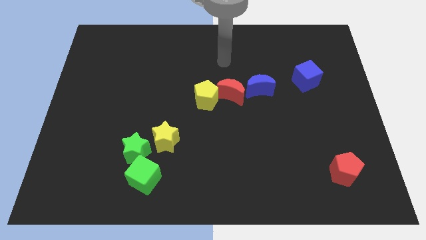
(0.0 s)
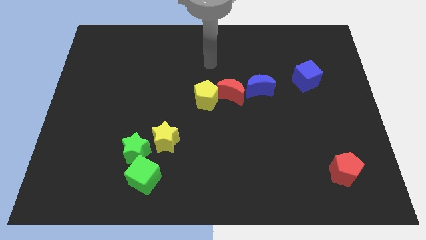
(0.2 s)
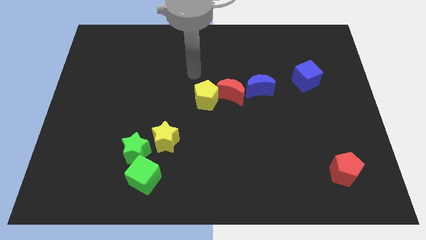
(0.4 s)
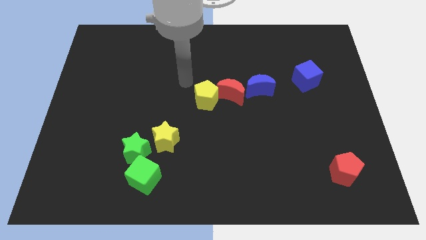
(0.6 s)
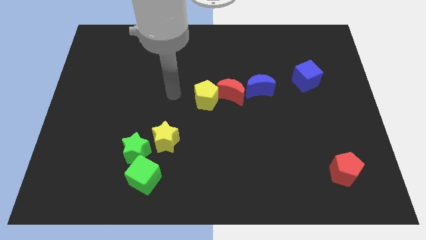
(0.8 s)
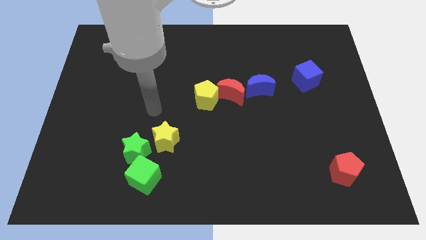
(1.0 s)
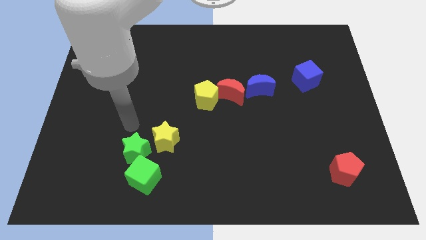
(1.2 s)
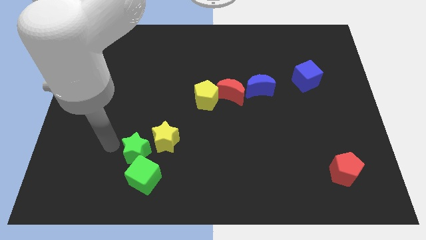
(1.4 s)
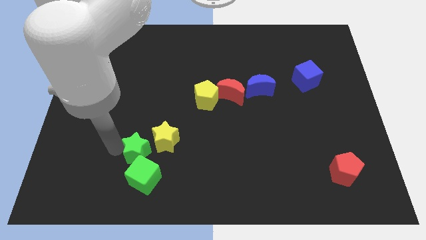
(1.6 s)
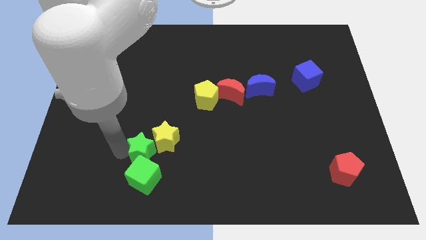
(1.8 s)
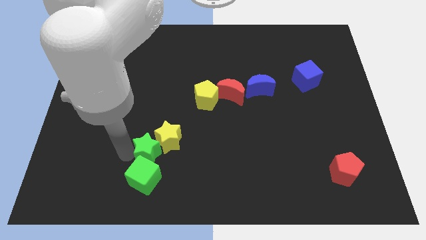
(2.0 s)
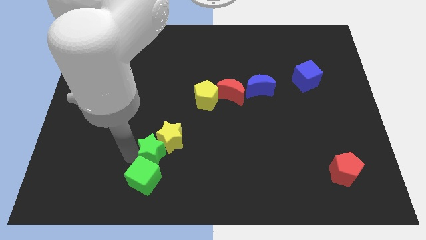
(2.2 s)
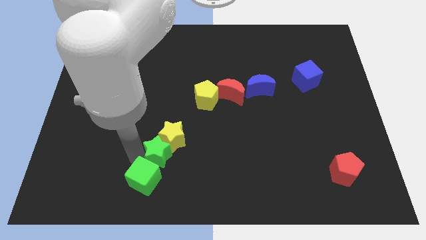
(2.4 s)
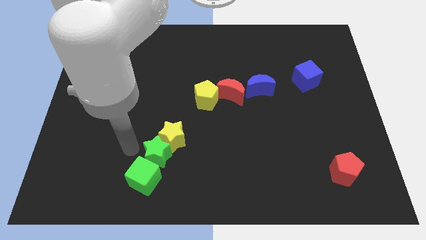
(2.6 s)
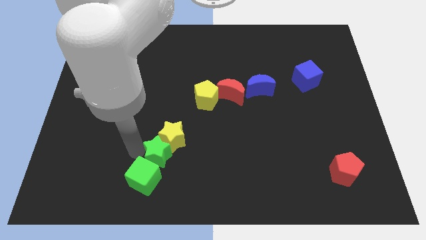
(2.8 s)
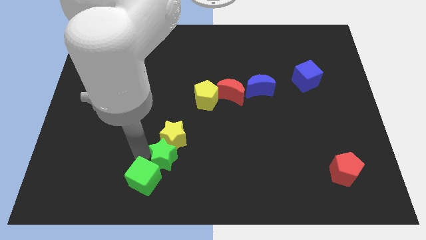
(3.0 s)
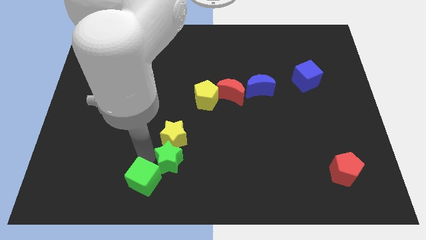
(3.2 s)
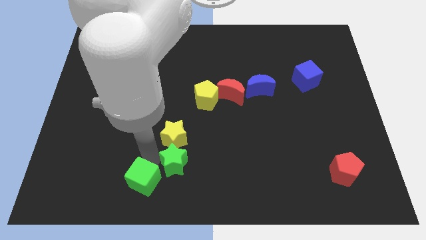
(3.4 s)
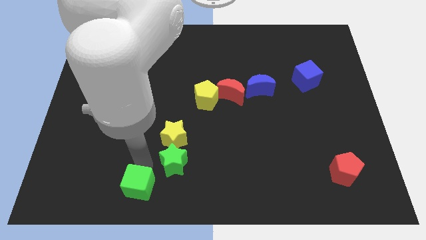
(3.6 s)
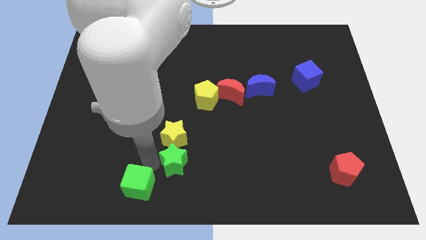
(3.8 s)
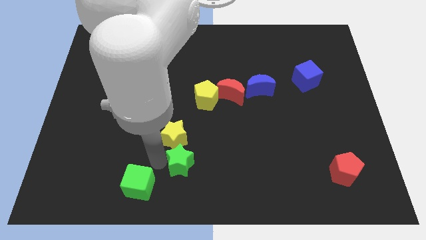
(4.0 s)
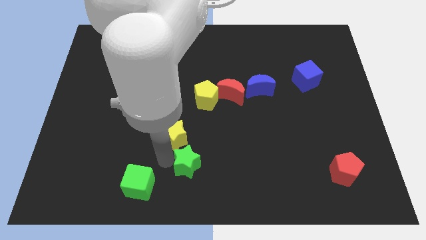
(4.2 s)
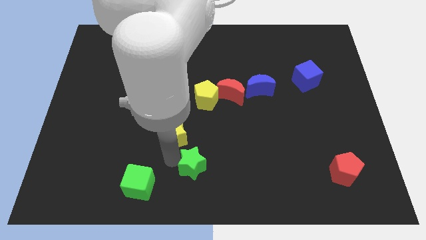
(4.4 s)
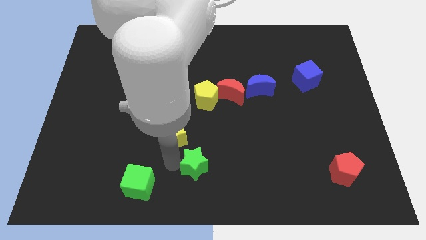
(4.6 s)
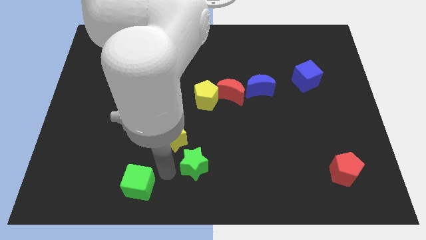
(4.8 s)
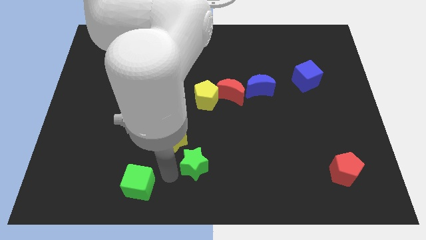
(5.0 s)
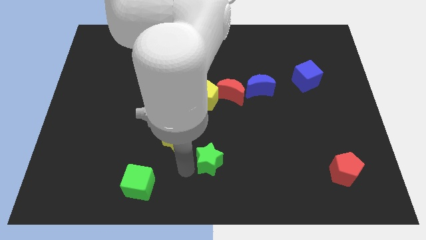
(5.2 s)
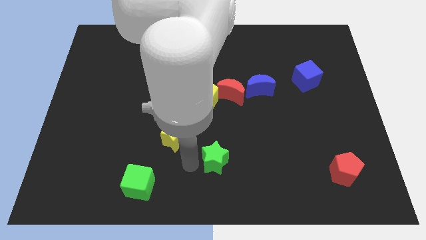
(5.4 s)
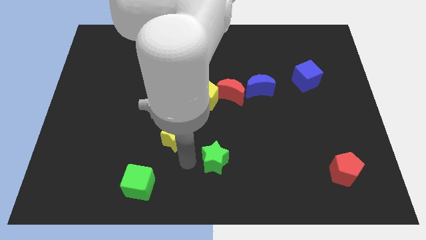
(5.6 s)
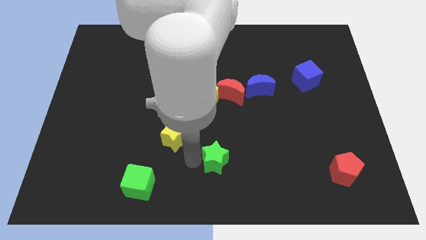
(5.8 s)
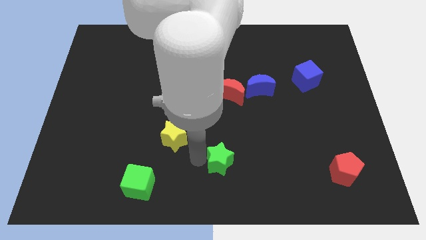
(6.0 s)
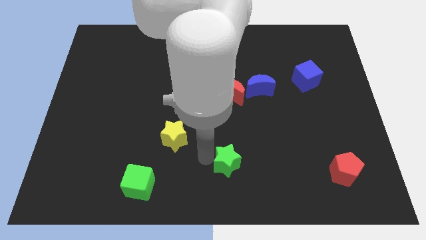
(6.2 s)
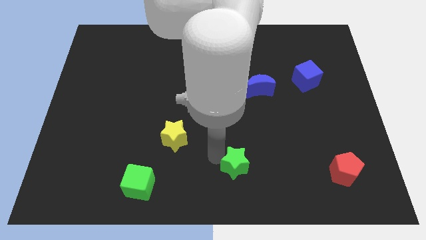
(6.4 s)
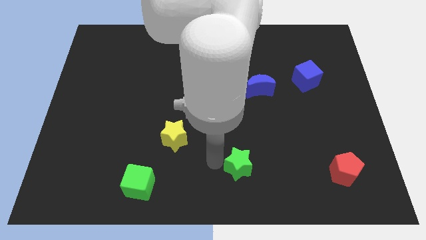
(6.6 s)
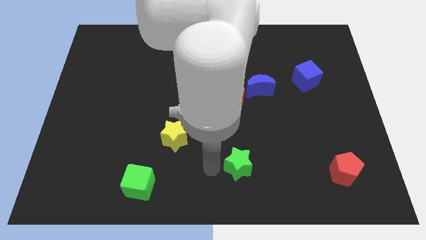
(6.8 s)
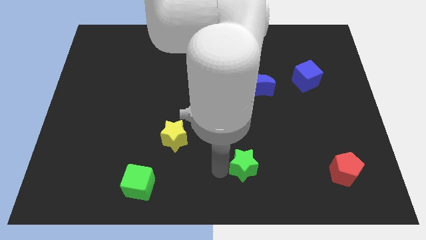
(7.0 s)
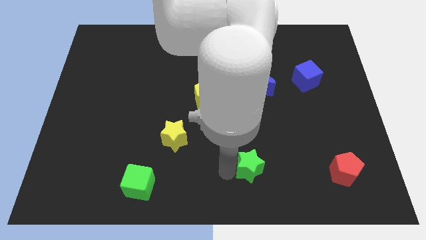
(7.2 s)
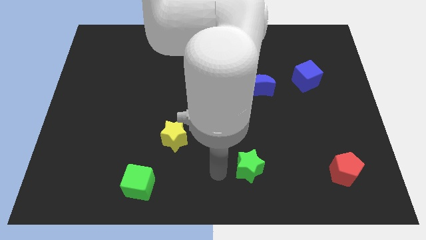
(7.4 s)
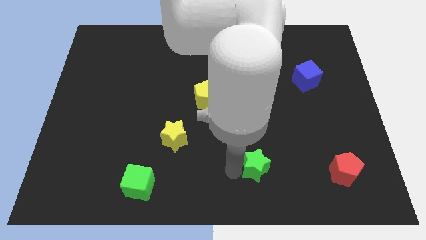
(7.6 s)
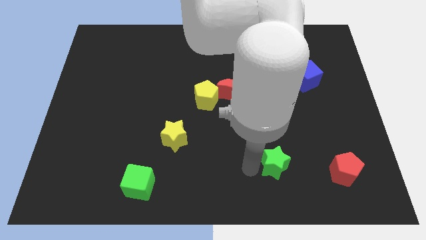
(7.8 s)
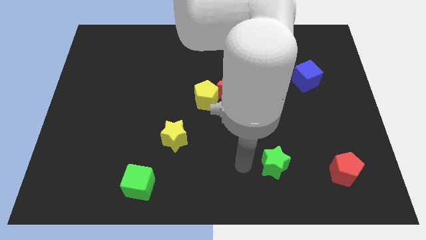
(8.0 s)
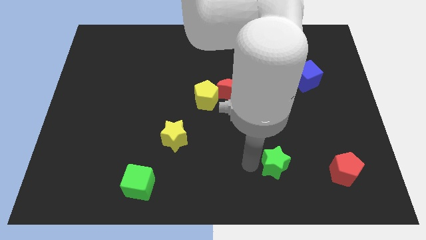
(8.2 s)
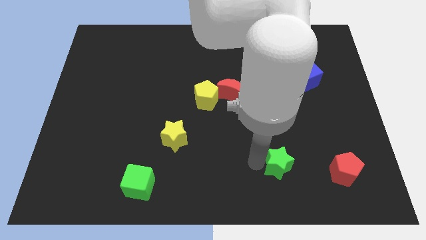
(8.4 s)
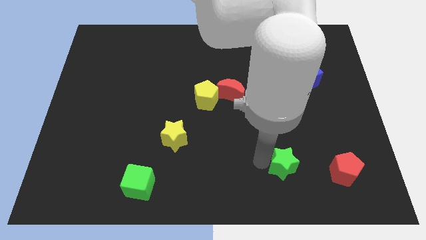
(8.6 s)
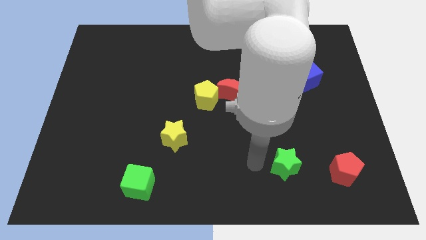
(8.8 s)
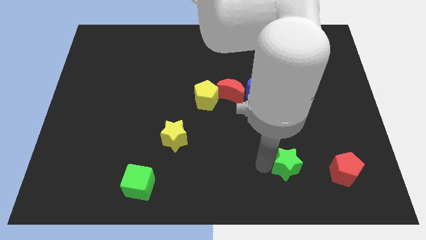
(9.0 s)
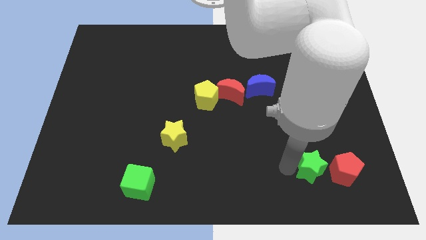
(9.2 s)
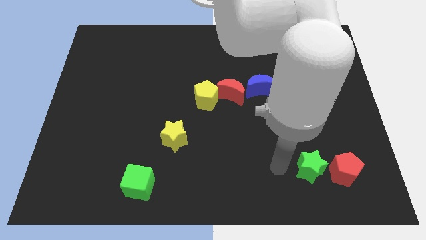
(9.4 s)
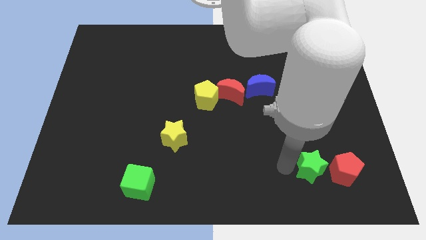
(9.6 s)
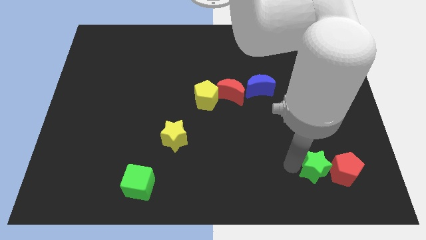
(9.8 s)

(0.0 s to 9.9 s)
put the green star close to the red pentagon

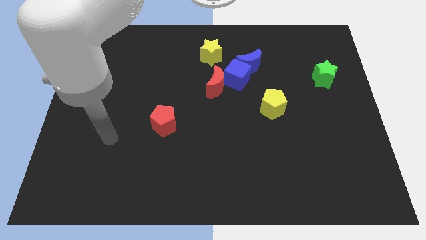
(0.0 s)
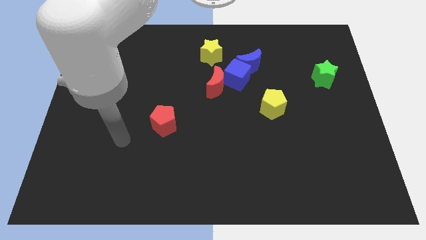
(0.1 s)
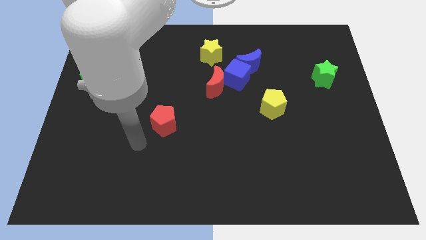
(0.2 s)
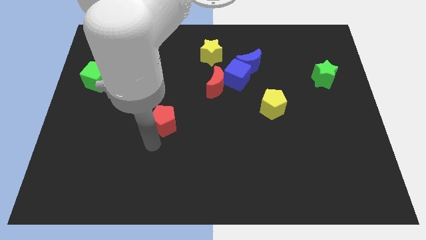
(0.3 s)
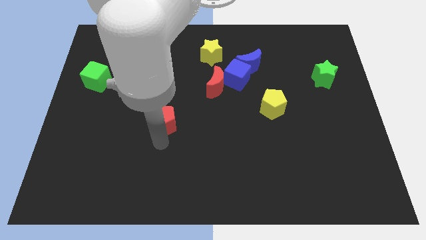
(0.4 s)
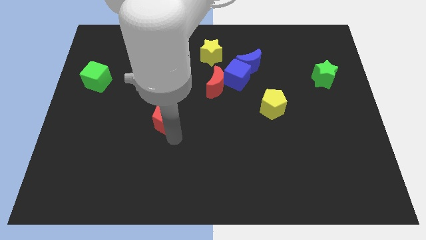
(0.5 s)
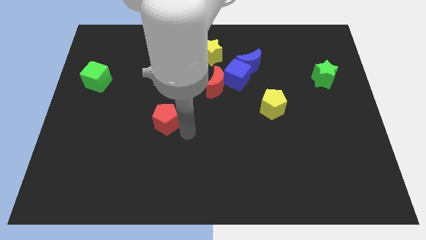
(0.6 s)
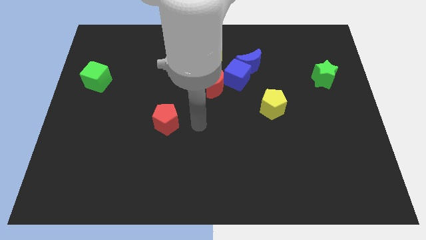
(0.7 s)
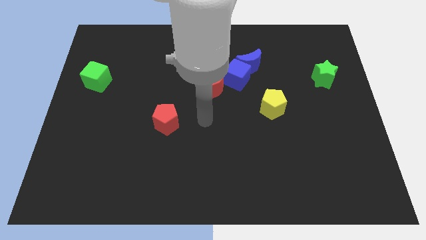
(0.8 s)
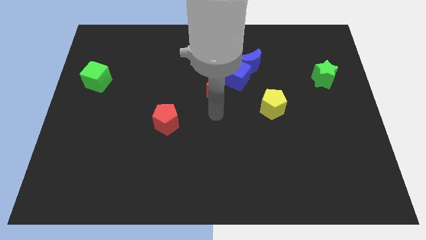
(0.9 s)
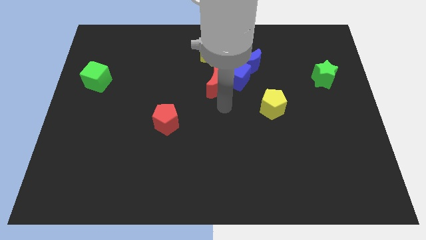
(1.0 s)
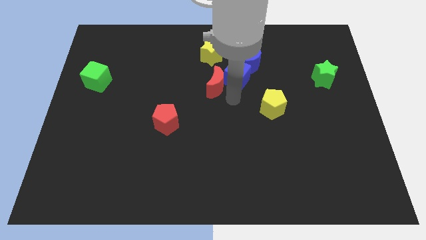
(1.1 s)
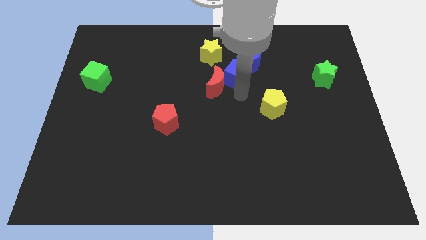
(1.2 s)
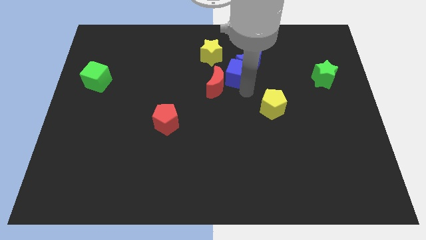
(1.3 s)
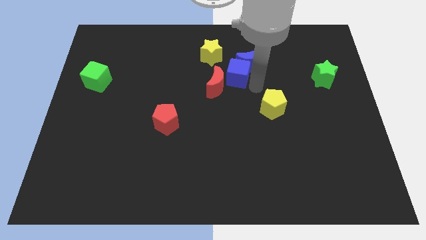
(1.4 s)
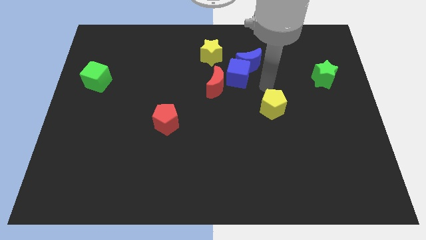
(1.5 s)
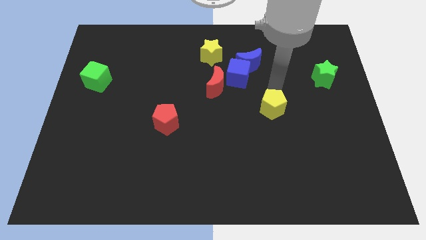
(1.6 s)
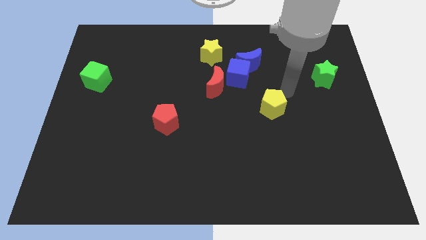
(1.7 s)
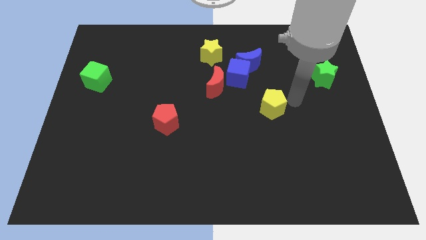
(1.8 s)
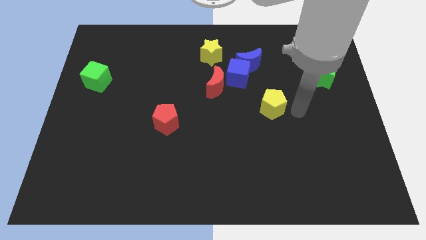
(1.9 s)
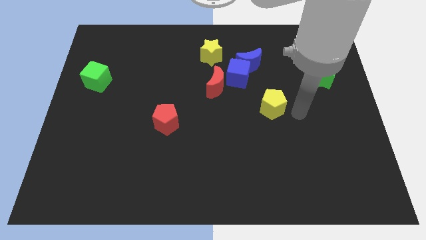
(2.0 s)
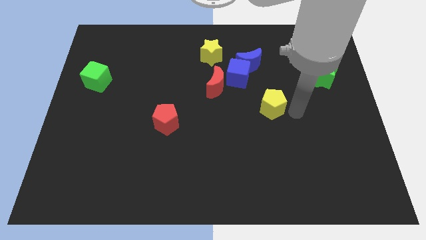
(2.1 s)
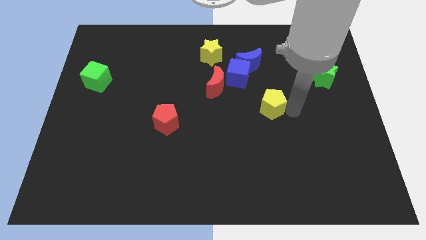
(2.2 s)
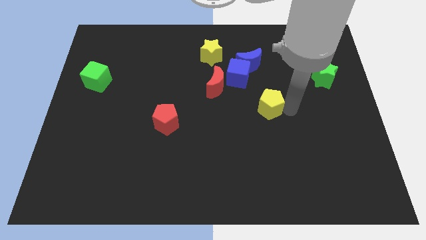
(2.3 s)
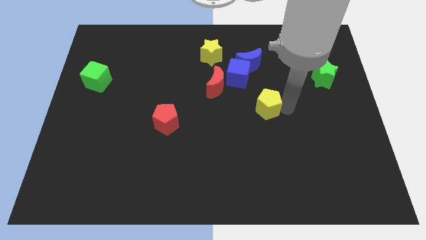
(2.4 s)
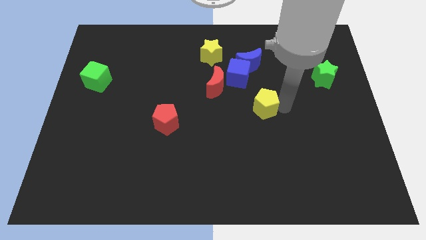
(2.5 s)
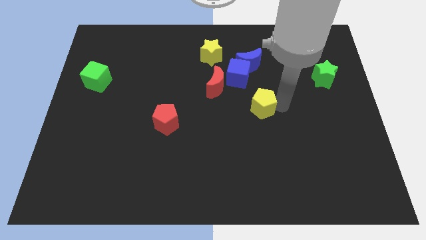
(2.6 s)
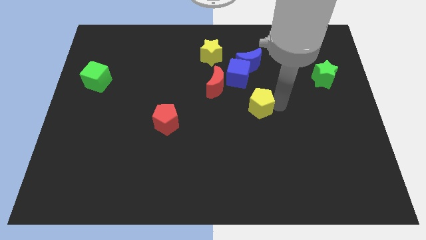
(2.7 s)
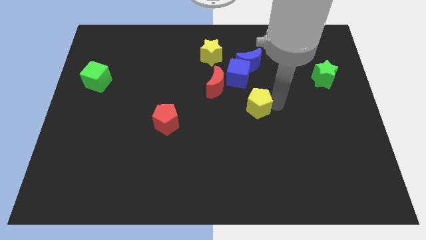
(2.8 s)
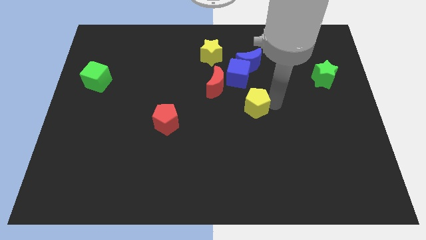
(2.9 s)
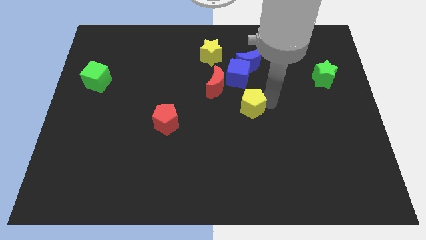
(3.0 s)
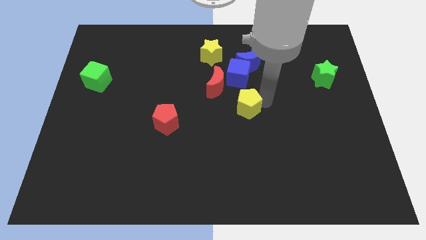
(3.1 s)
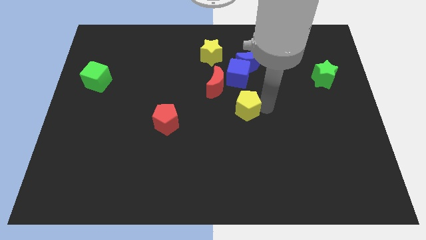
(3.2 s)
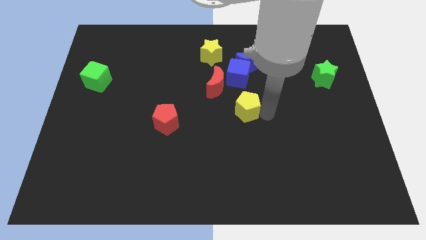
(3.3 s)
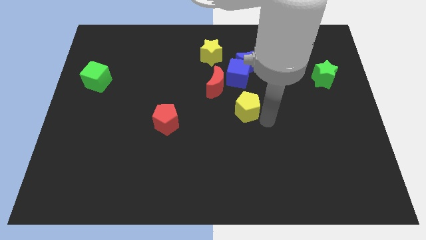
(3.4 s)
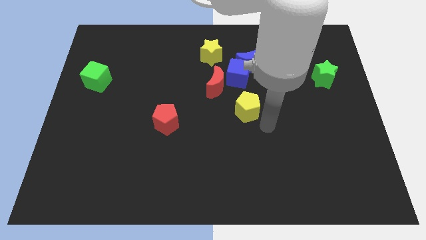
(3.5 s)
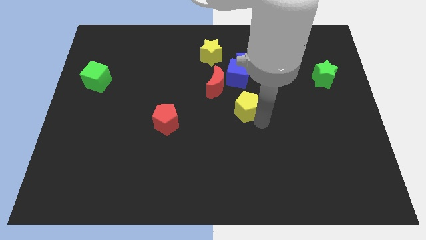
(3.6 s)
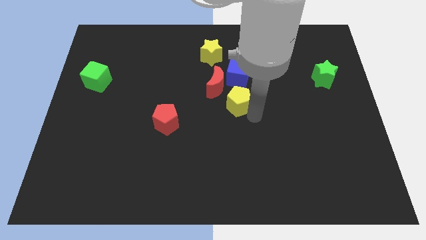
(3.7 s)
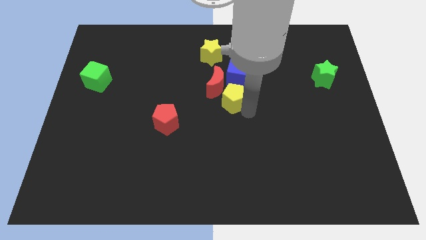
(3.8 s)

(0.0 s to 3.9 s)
move the yellow pentagon next to the red moon
